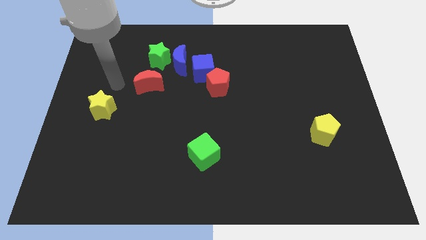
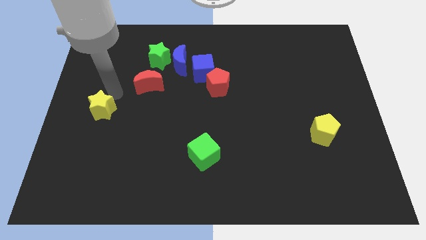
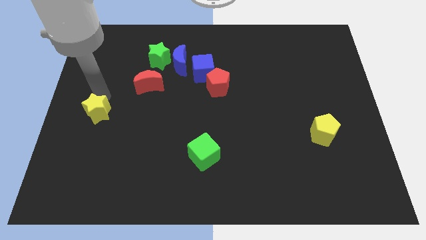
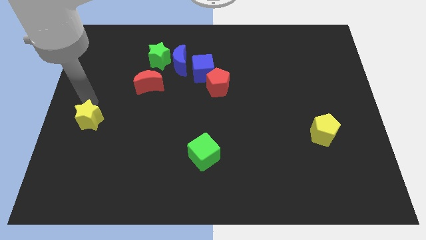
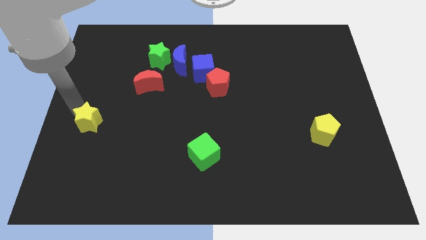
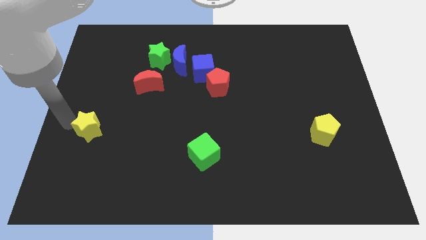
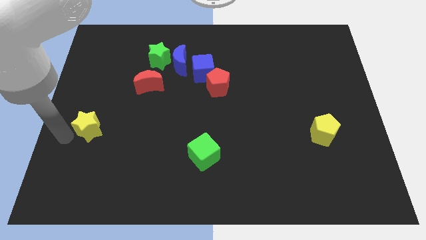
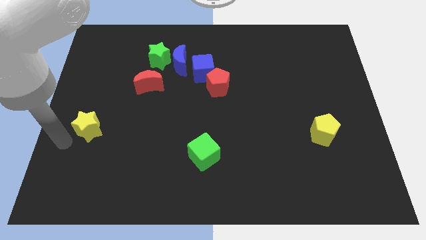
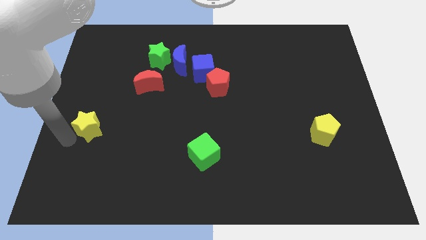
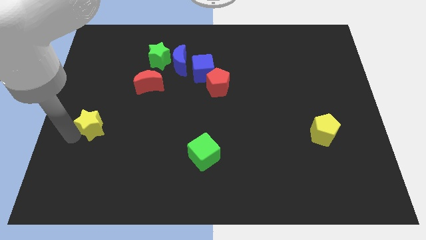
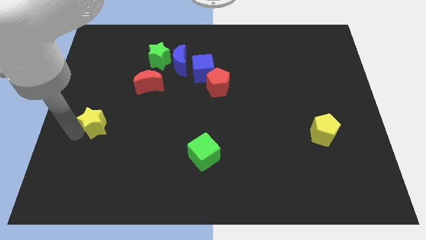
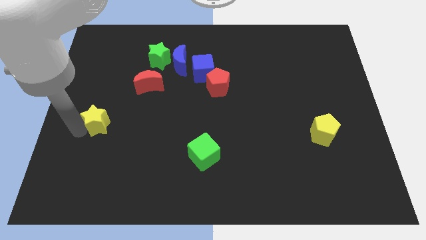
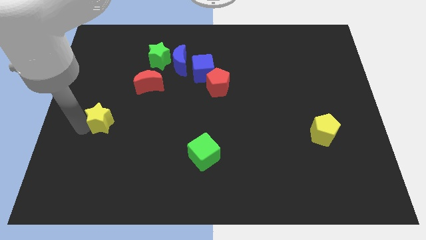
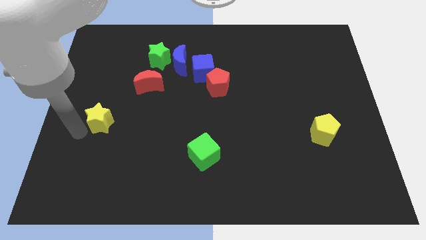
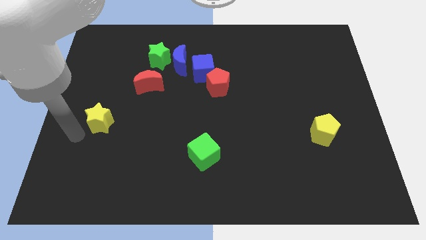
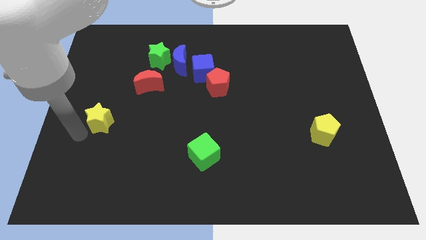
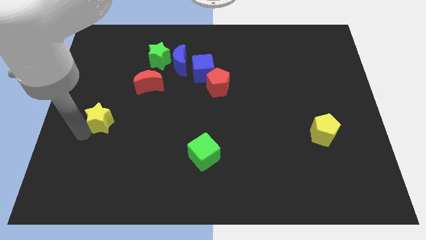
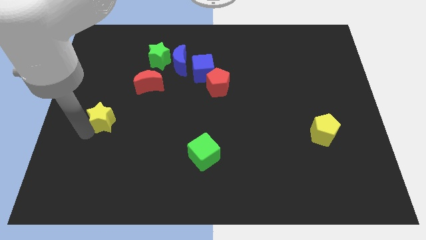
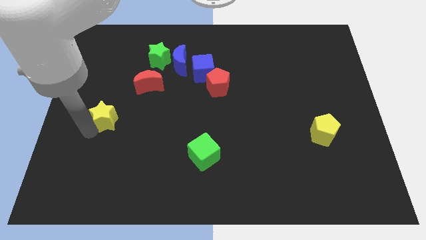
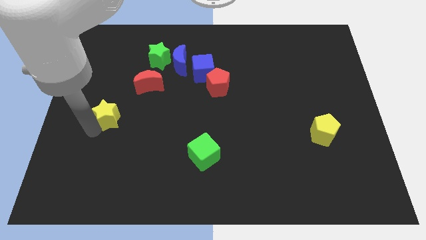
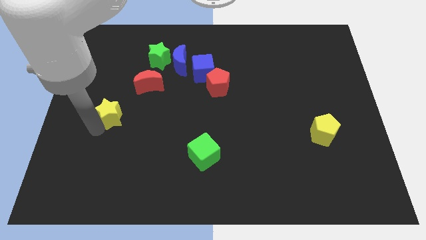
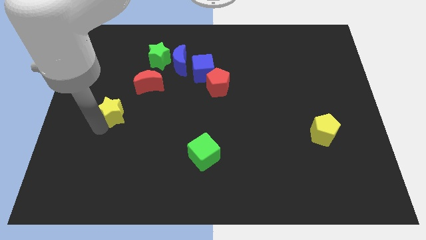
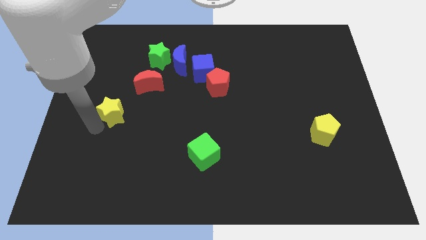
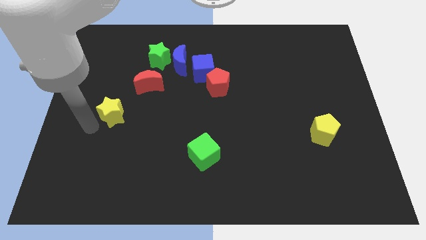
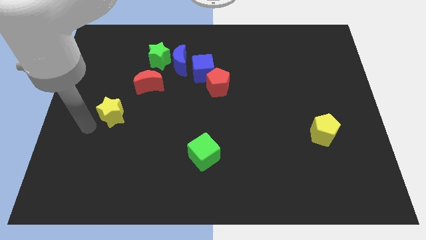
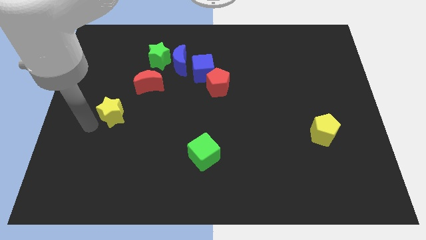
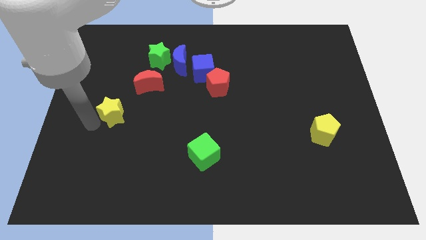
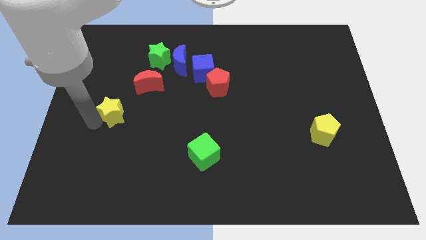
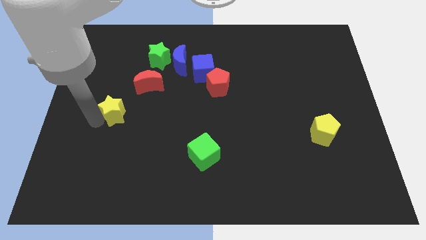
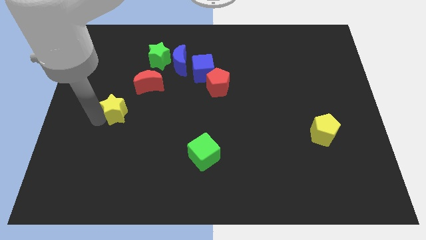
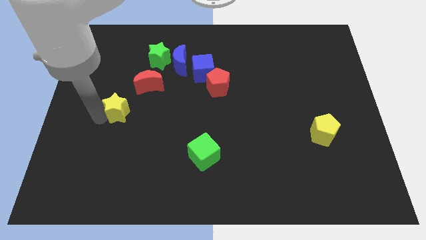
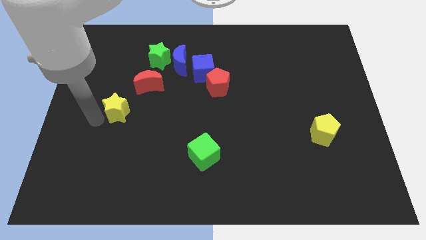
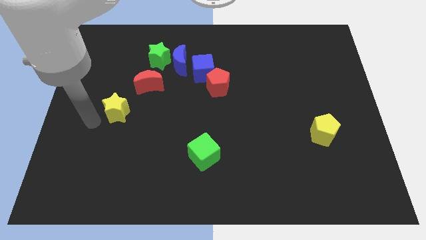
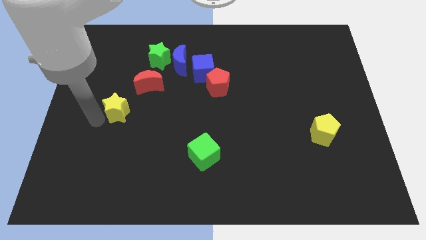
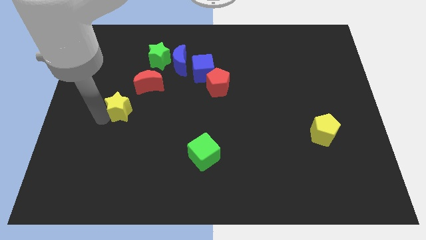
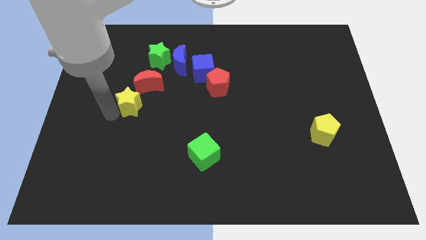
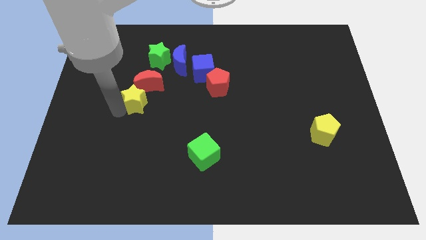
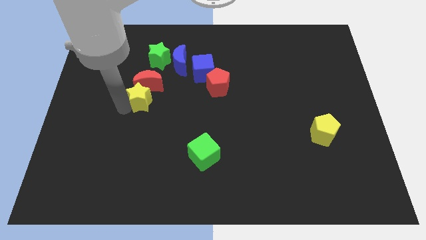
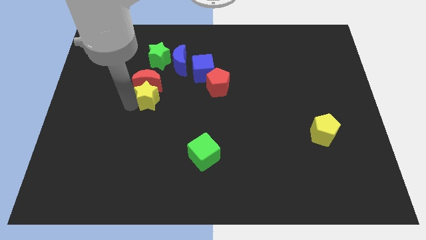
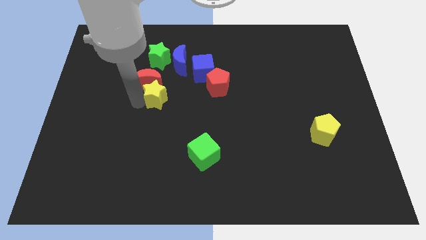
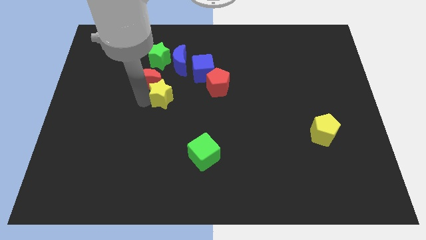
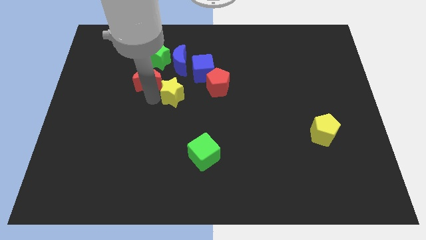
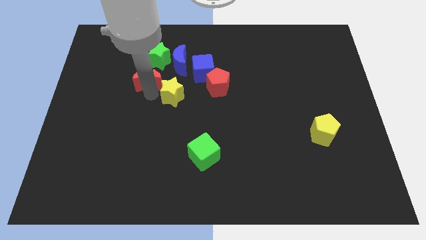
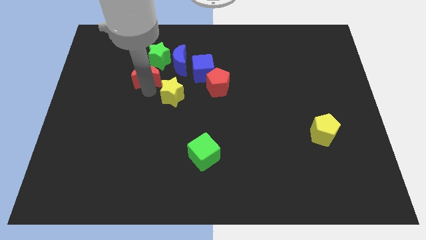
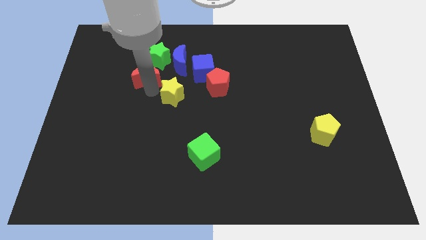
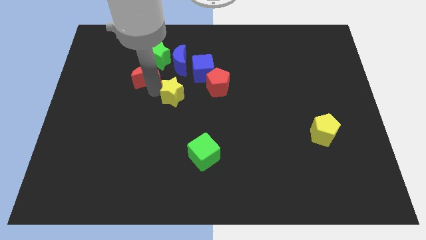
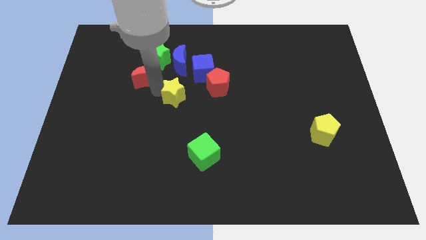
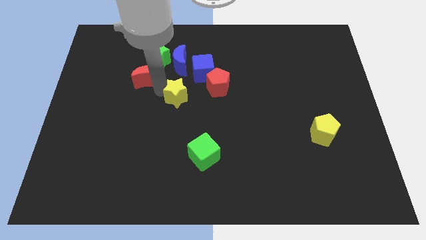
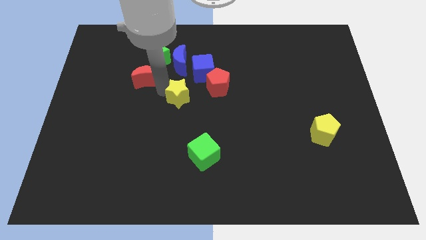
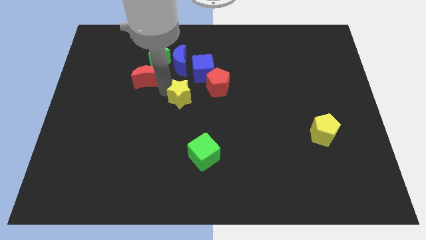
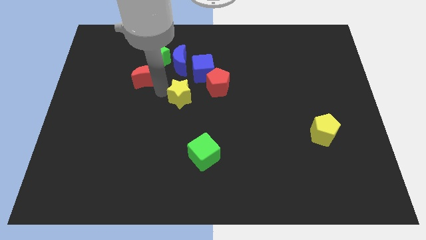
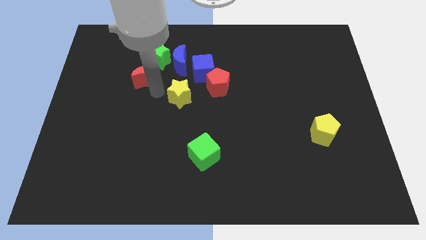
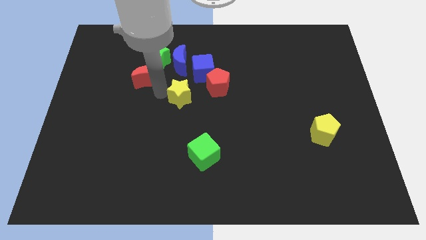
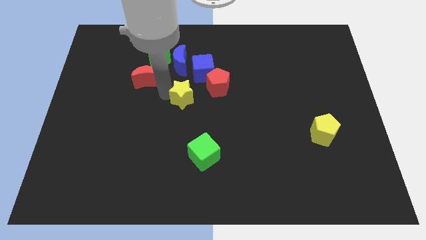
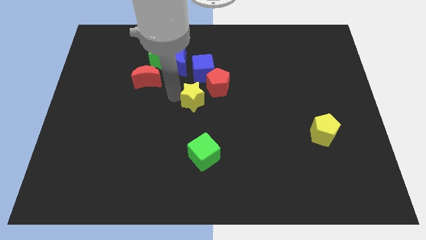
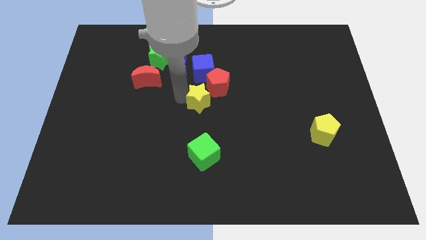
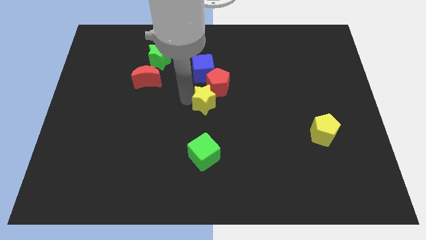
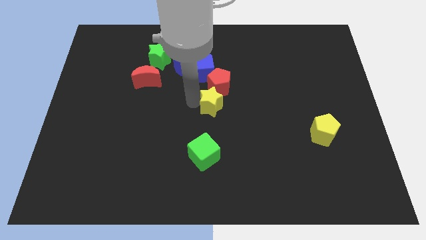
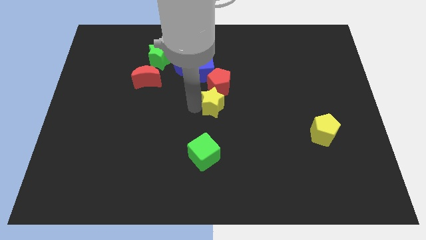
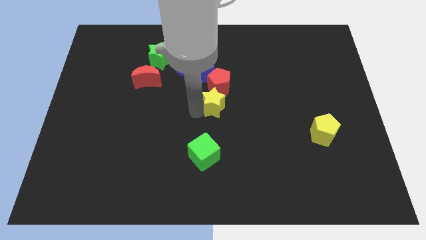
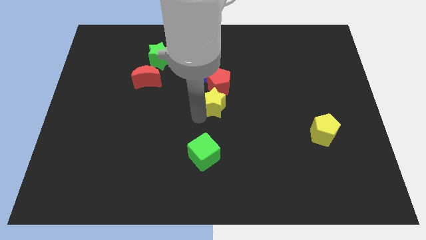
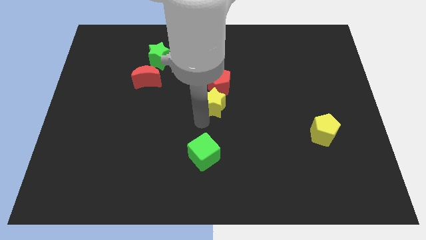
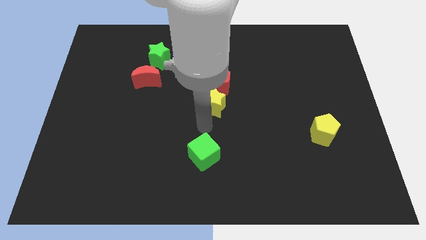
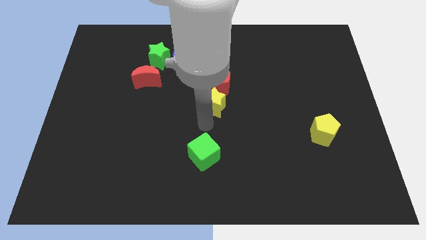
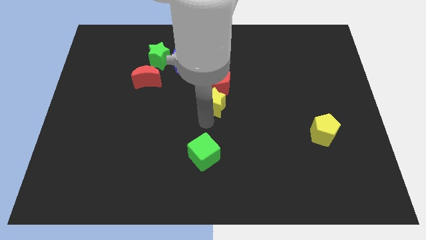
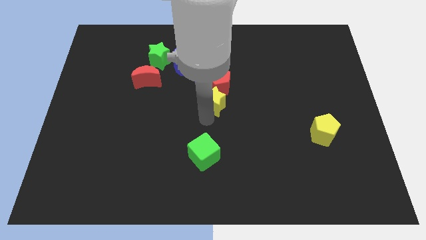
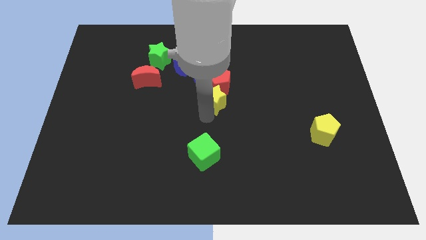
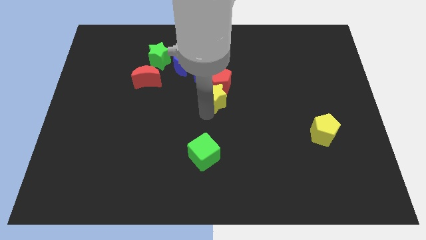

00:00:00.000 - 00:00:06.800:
move the yellow star to the bottom right of the blue cube
